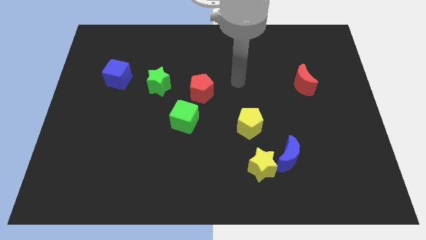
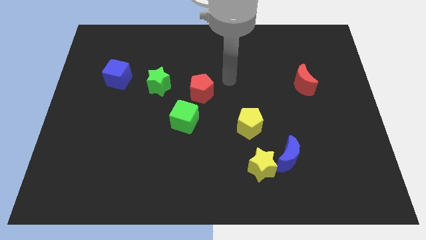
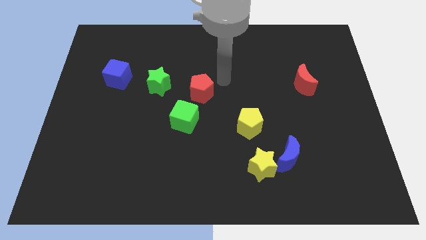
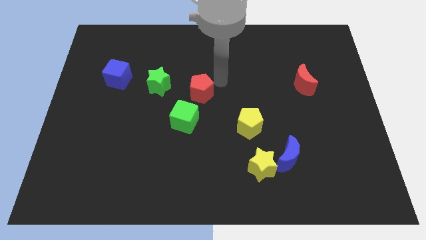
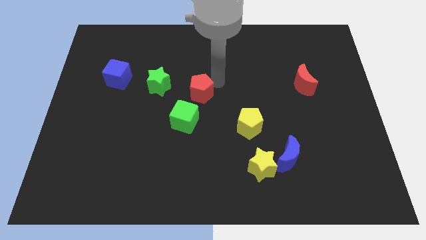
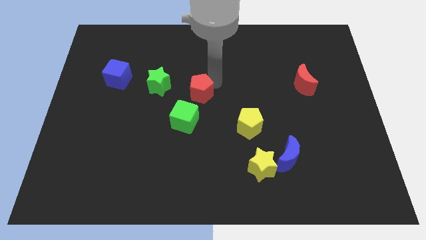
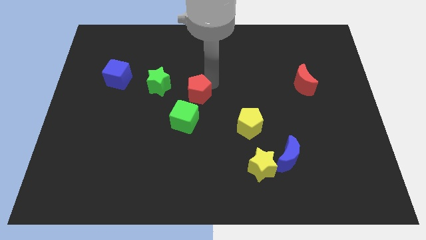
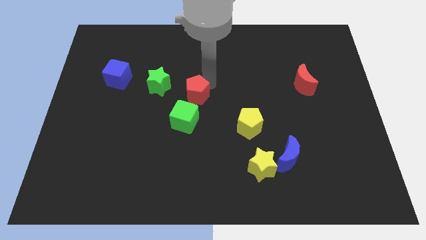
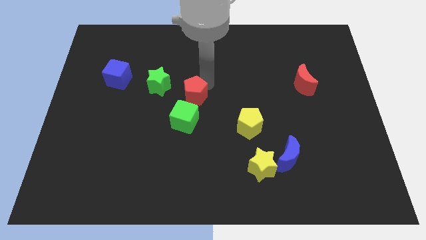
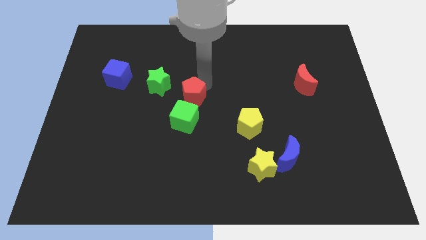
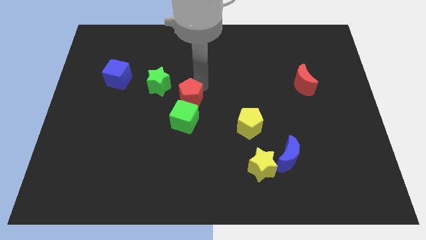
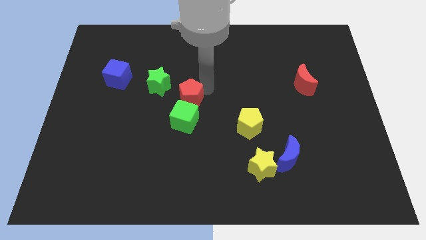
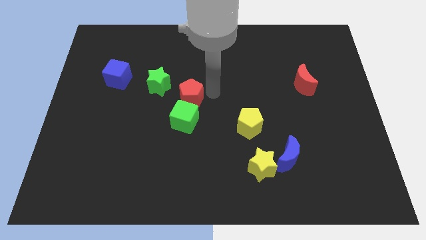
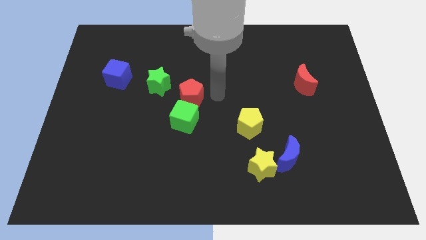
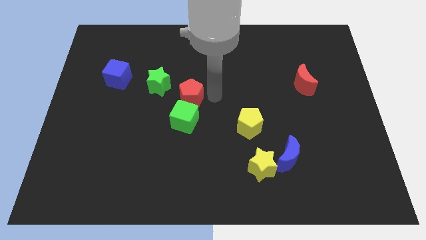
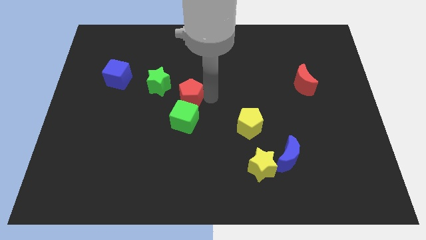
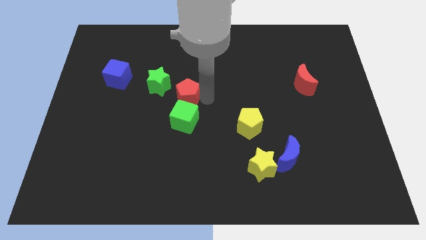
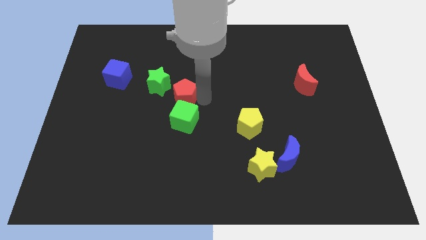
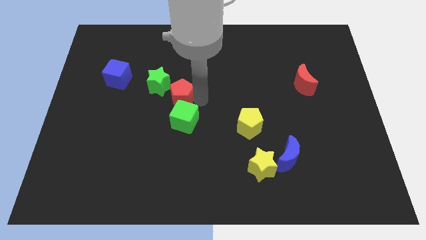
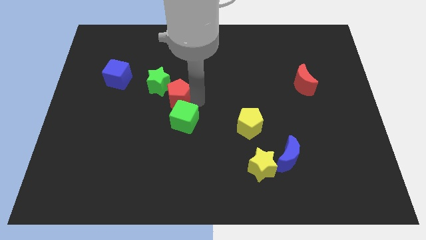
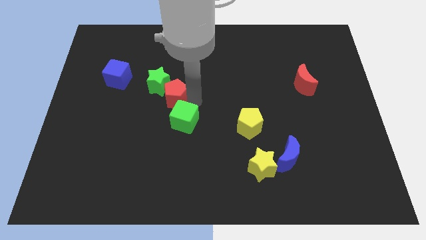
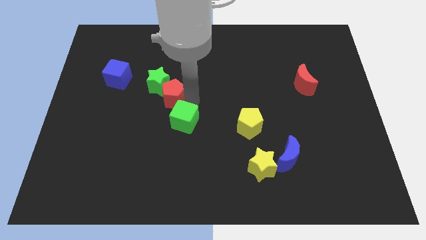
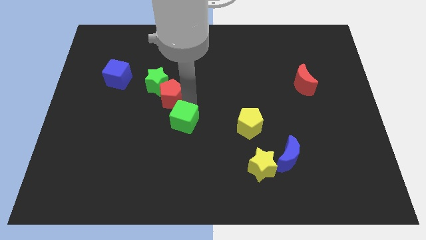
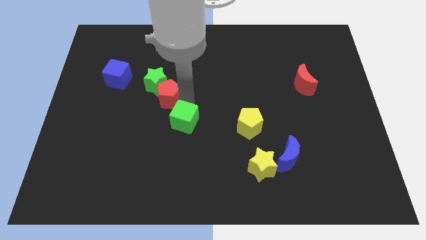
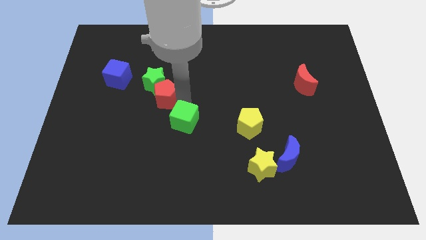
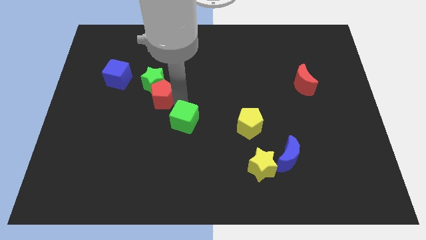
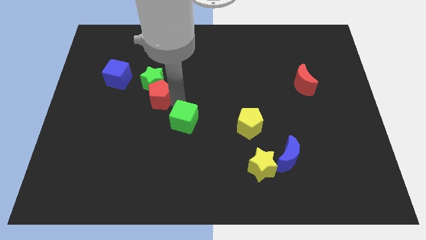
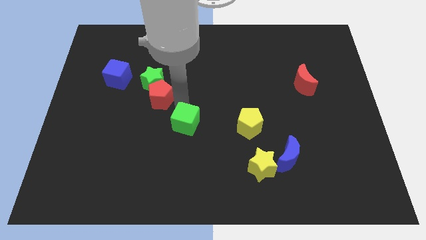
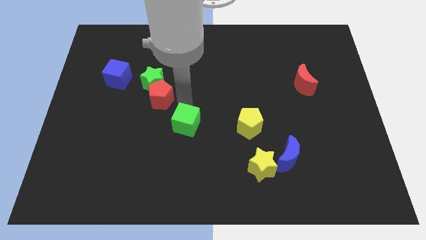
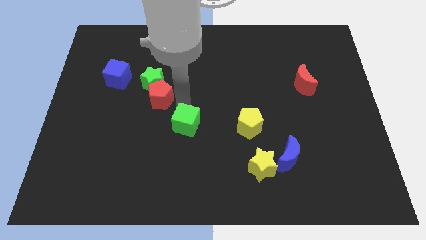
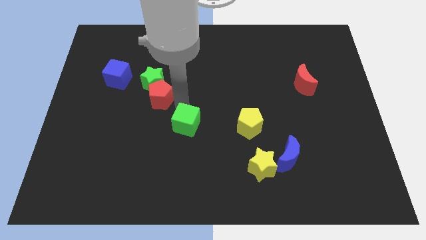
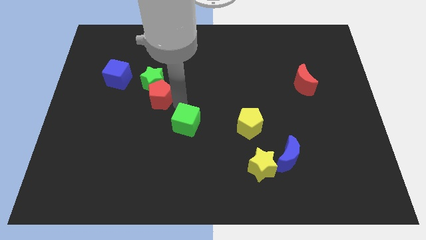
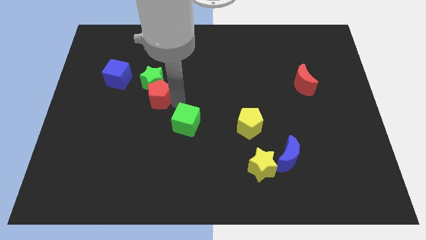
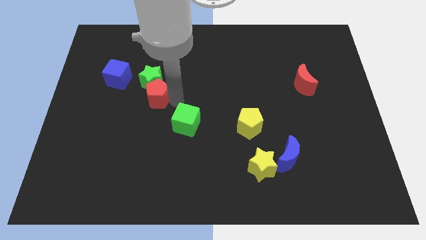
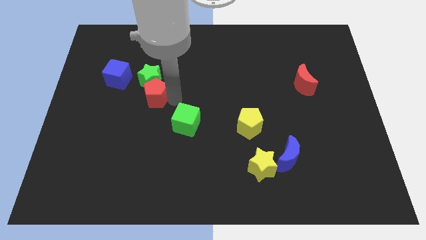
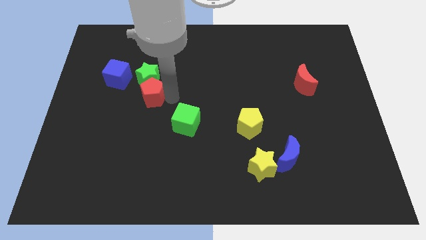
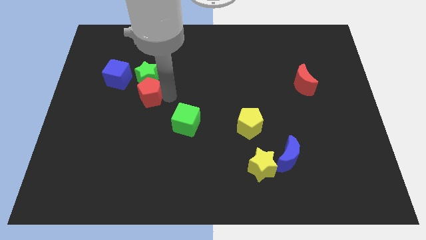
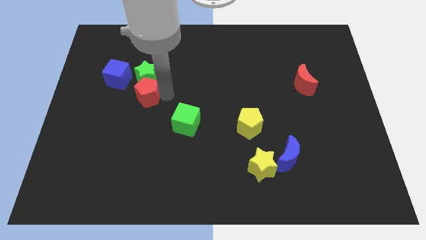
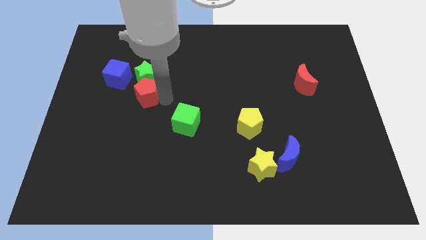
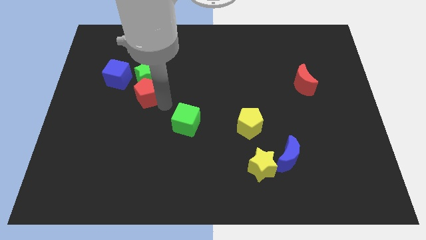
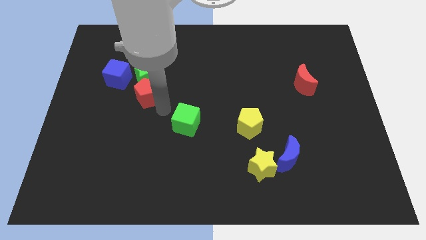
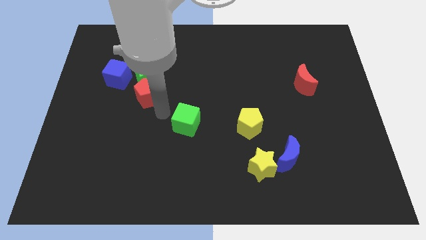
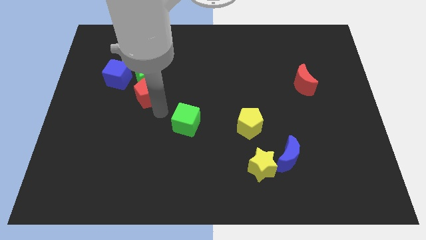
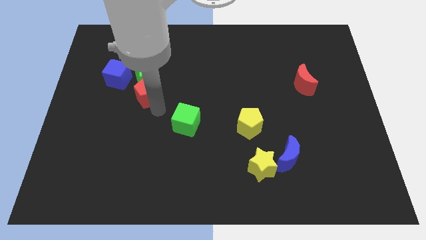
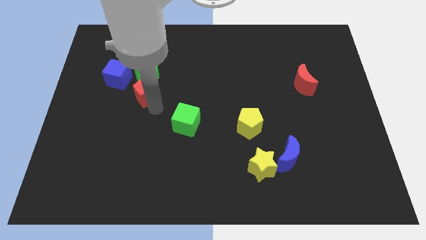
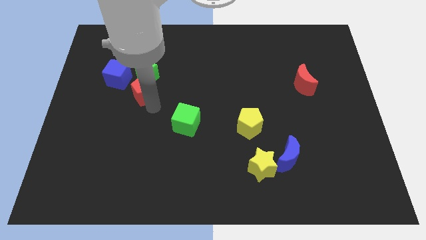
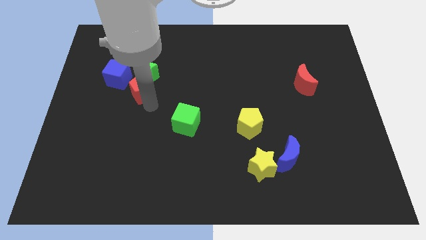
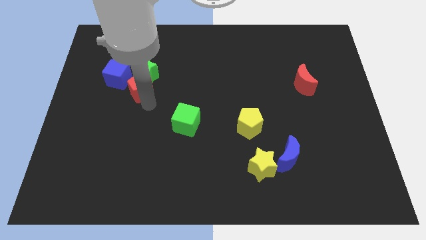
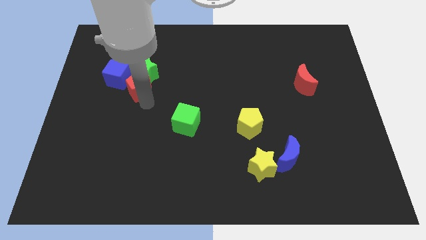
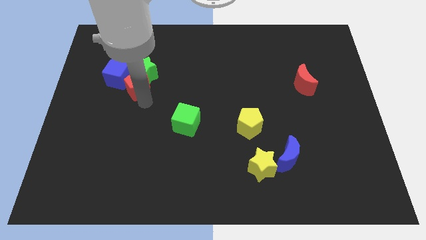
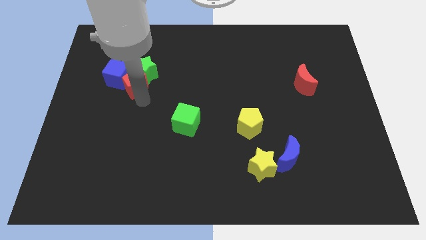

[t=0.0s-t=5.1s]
put the red pentagon to the blue cube

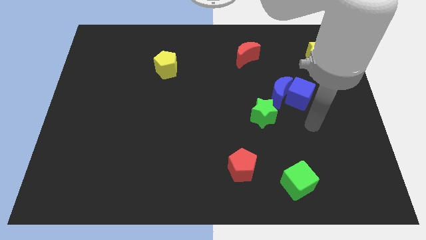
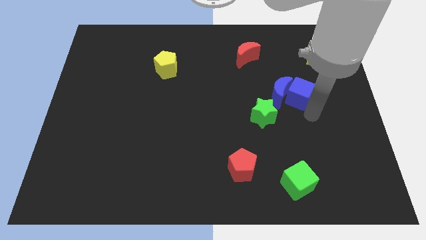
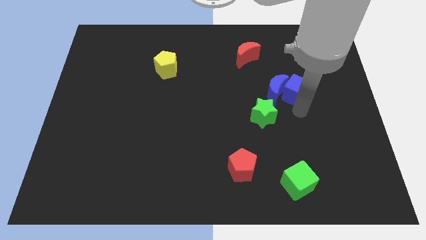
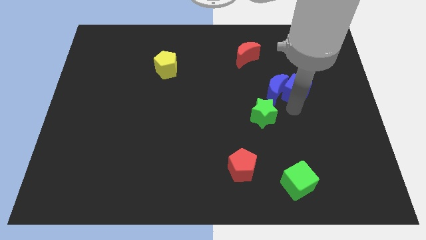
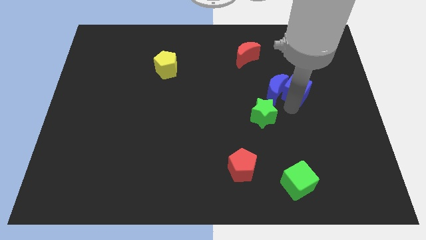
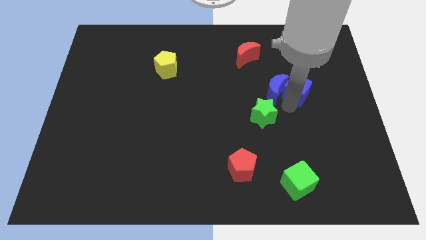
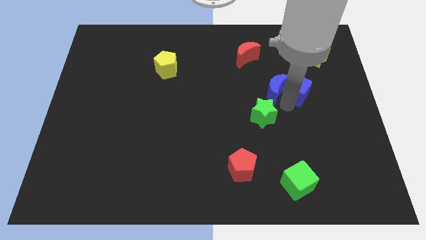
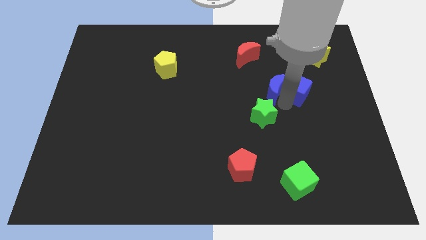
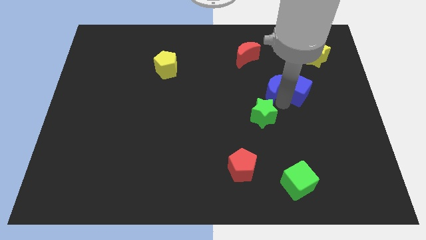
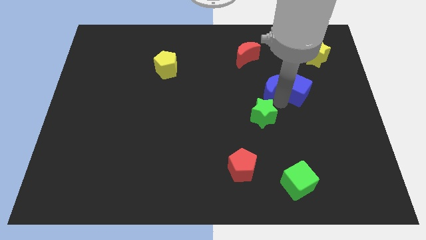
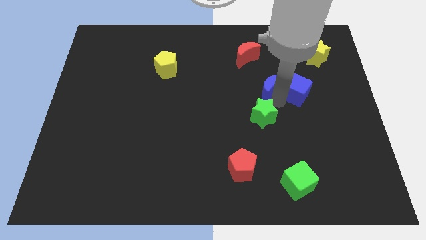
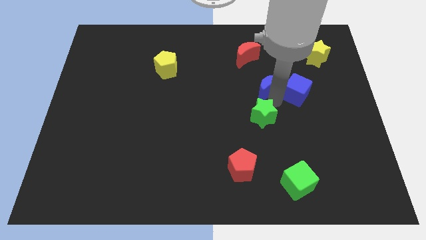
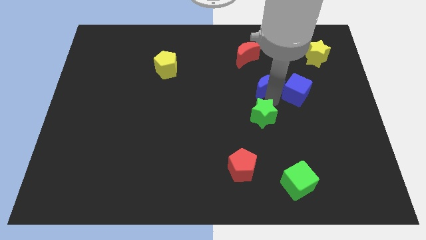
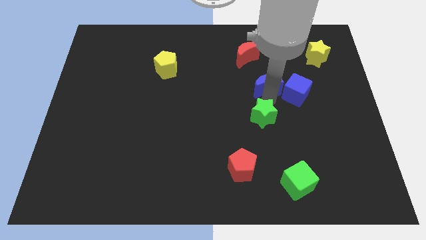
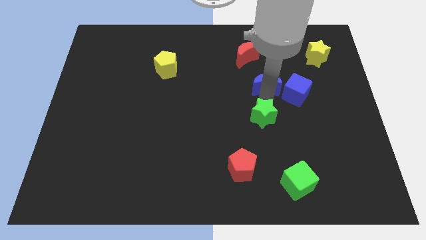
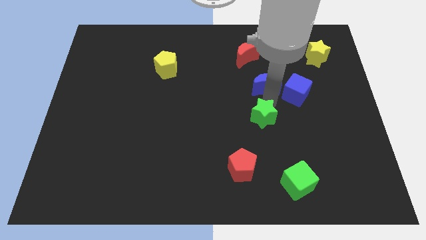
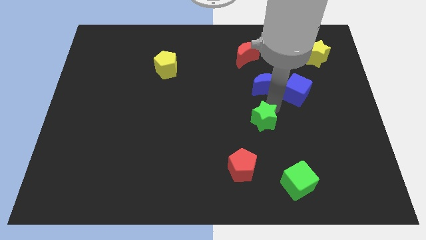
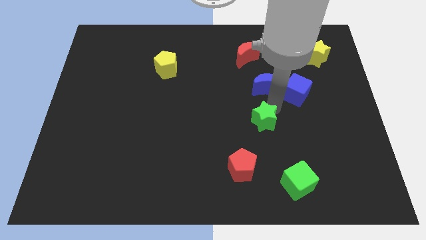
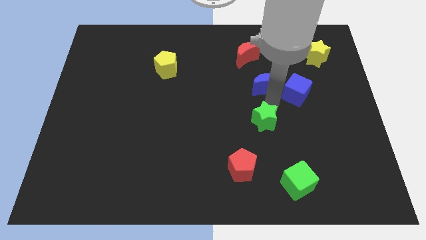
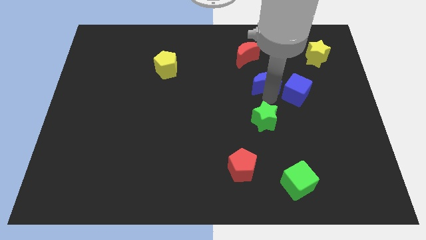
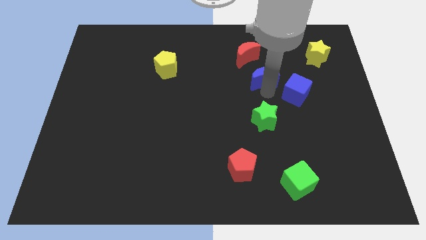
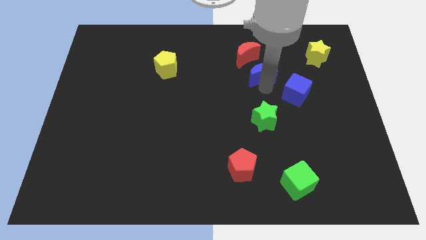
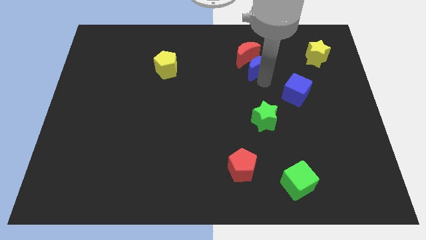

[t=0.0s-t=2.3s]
move the blue moon towards the red moon

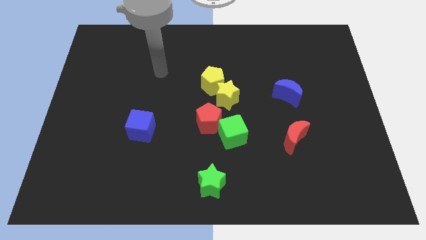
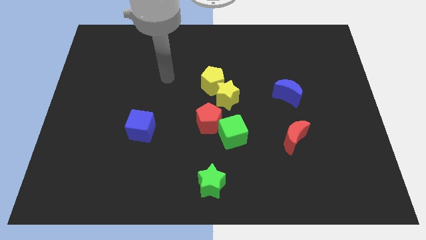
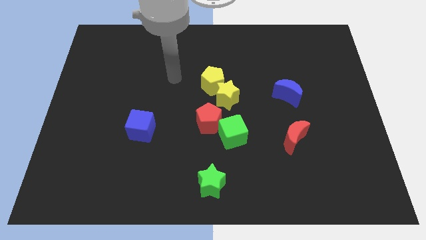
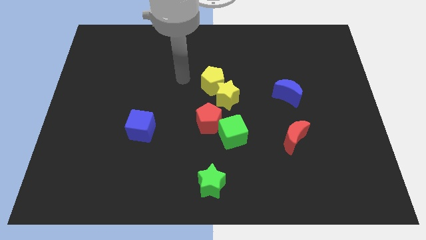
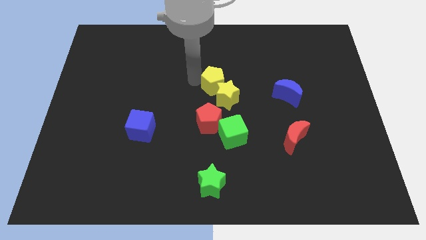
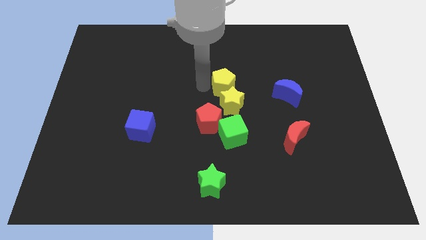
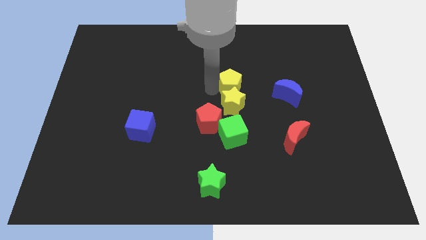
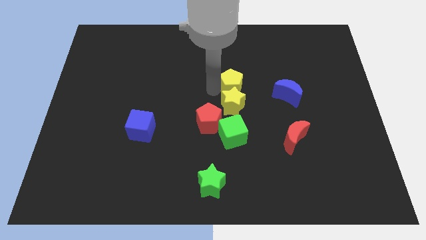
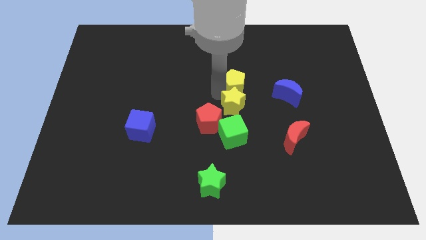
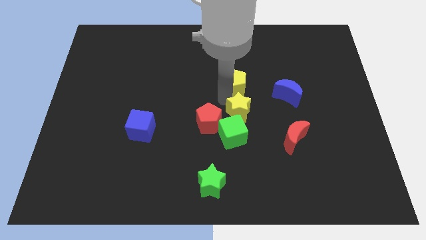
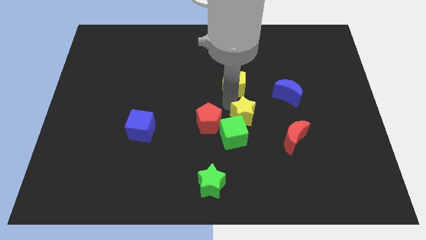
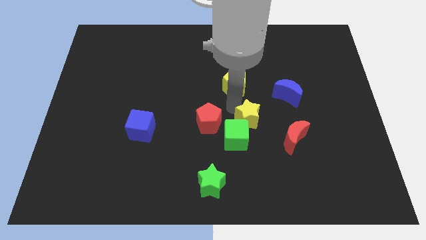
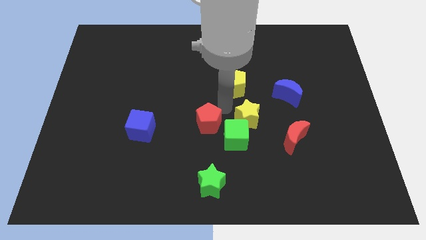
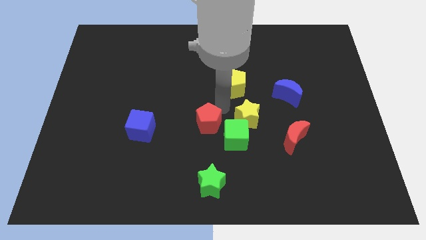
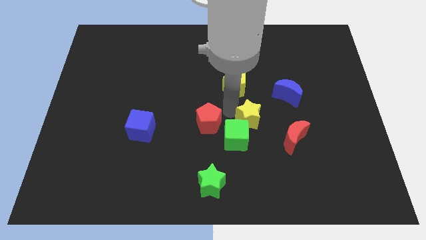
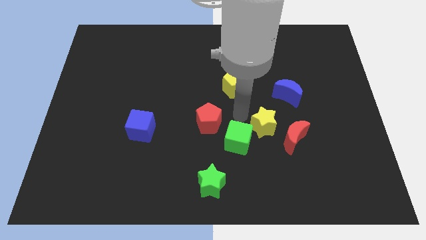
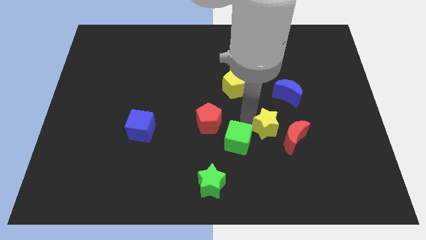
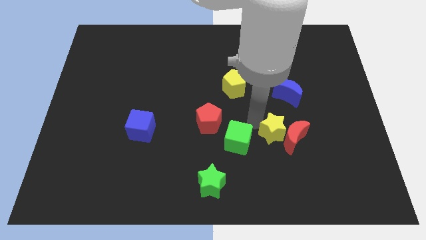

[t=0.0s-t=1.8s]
move the yellow star next to the red moon
